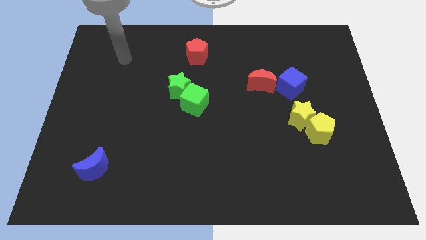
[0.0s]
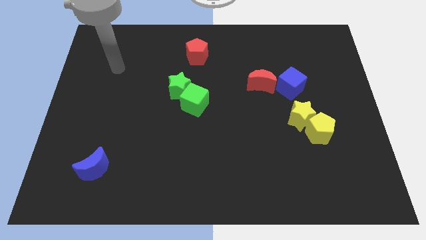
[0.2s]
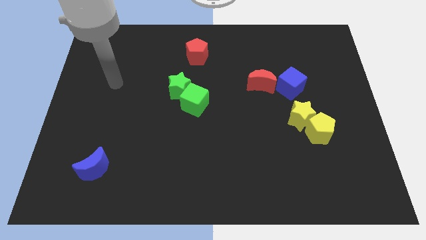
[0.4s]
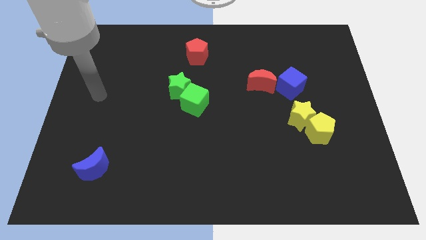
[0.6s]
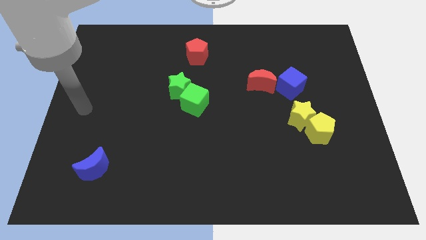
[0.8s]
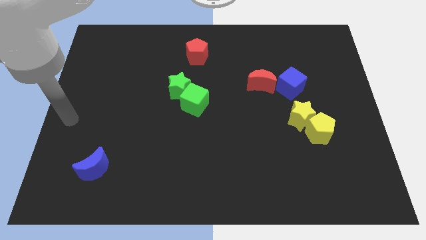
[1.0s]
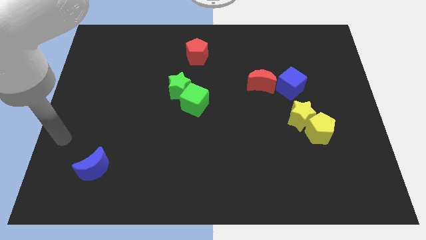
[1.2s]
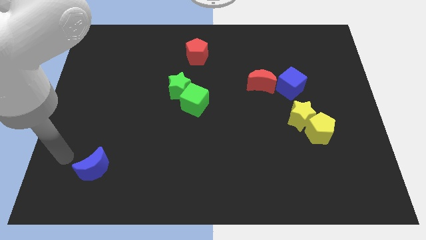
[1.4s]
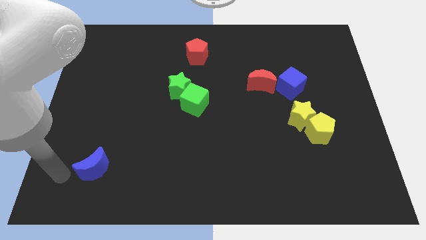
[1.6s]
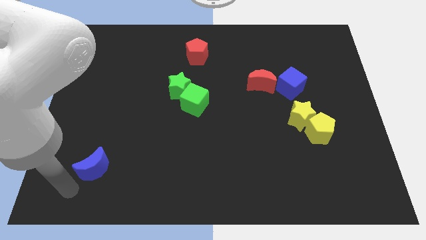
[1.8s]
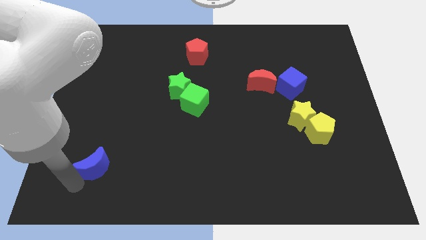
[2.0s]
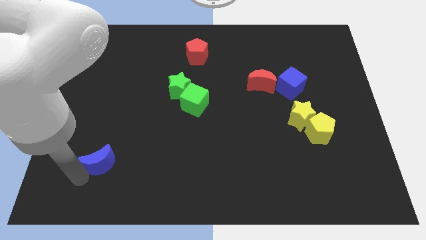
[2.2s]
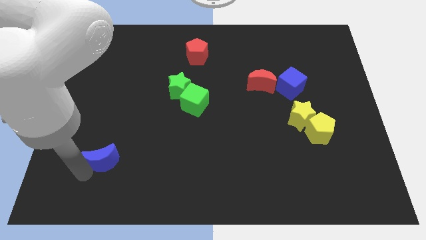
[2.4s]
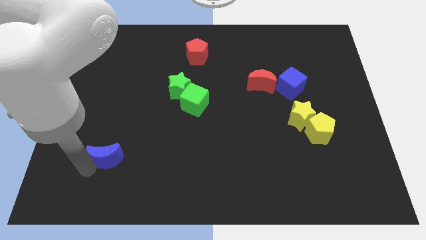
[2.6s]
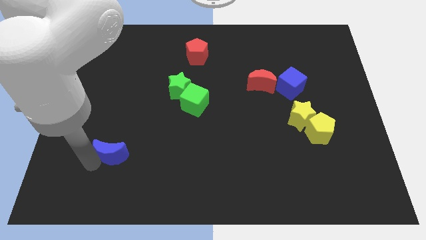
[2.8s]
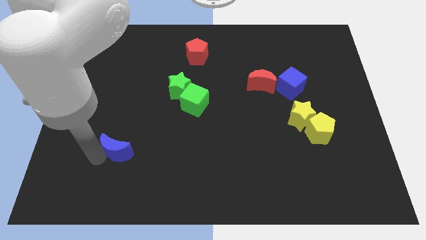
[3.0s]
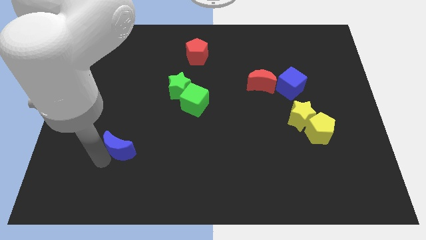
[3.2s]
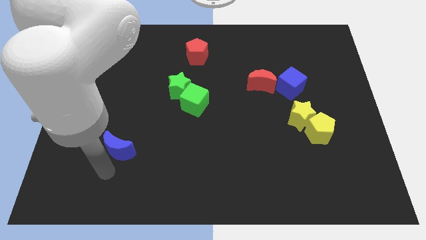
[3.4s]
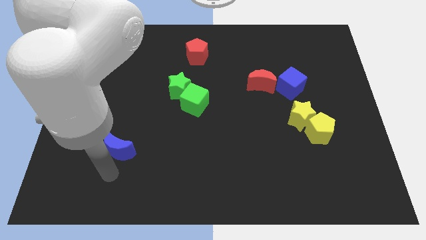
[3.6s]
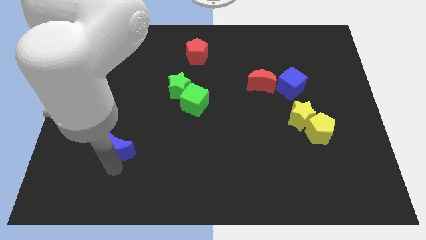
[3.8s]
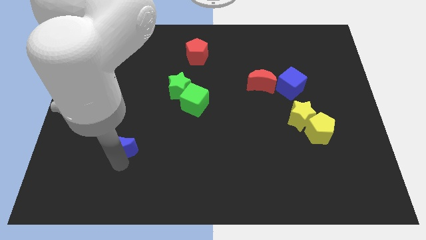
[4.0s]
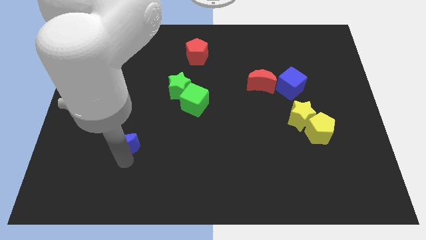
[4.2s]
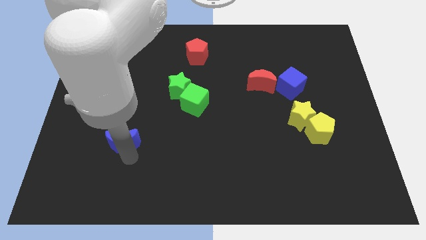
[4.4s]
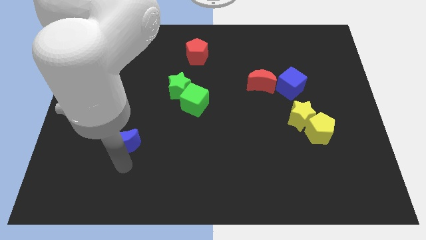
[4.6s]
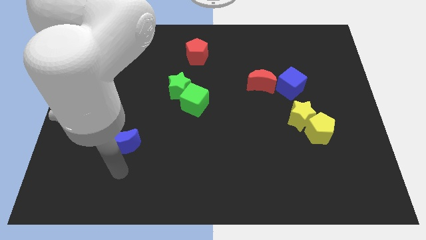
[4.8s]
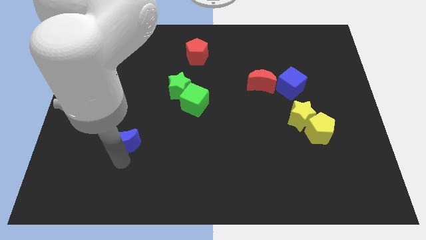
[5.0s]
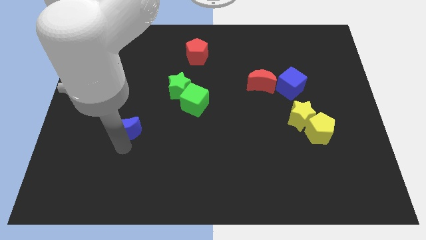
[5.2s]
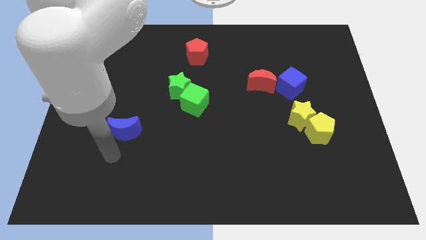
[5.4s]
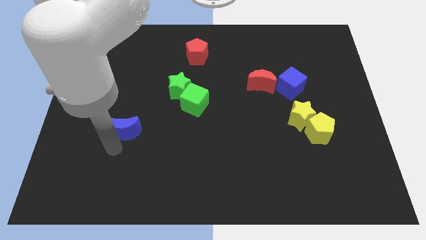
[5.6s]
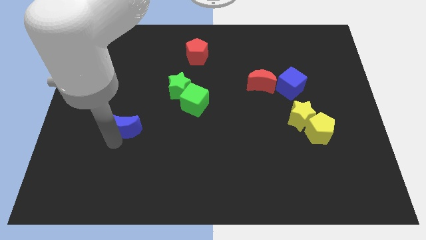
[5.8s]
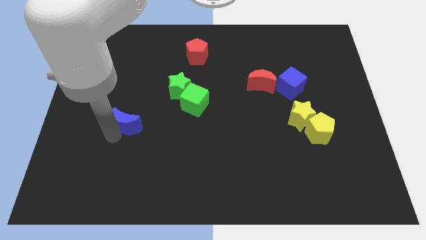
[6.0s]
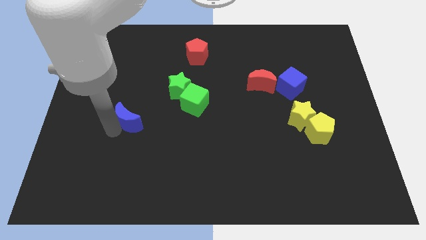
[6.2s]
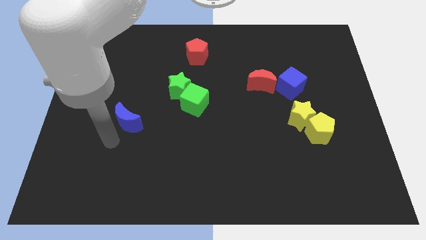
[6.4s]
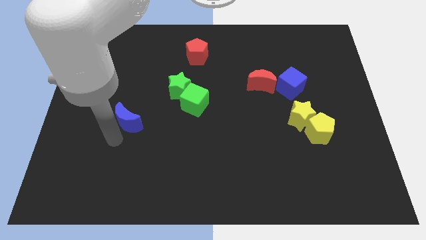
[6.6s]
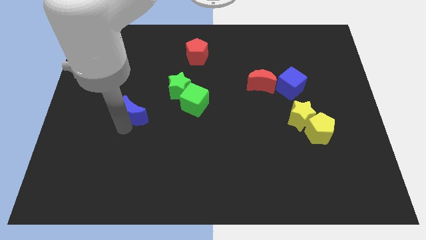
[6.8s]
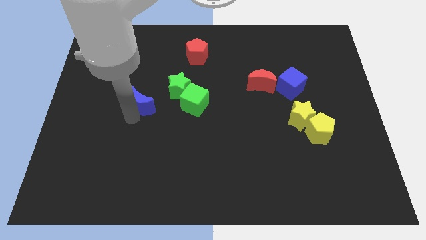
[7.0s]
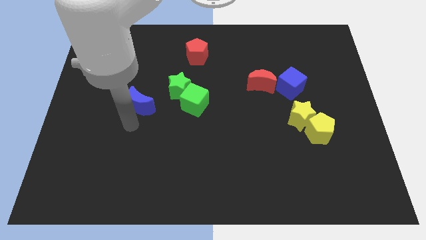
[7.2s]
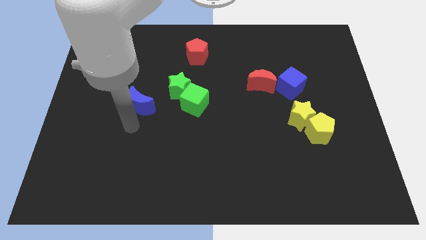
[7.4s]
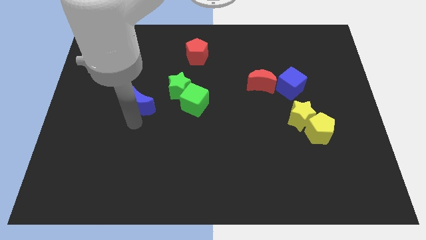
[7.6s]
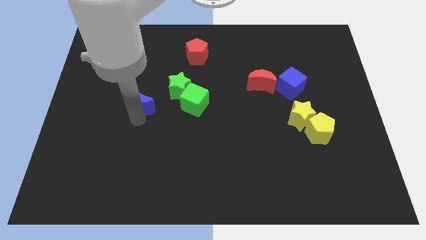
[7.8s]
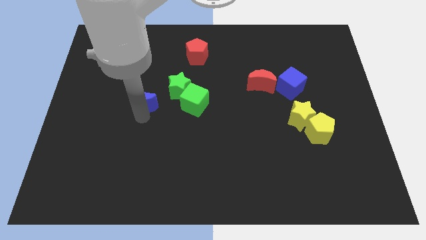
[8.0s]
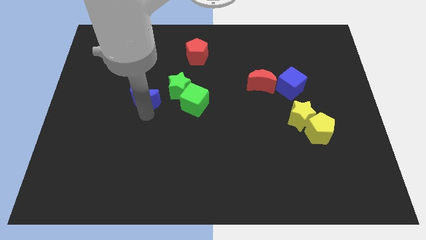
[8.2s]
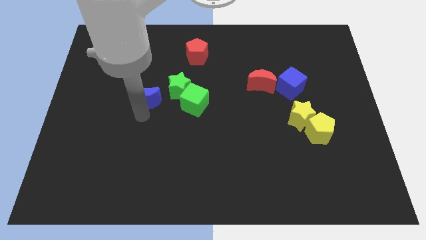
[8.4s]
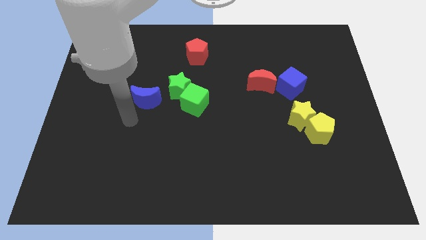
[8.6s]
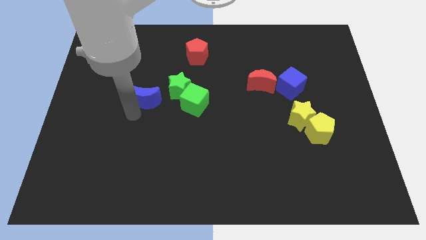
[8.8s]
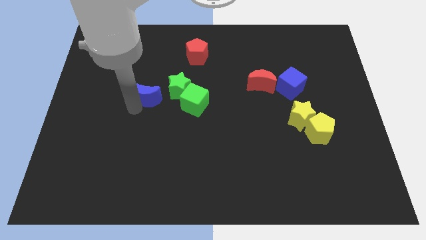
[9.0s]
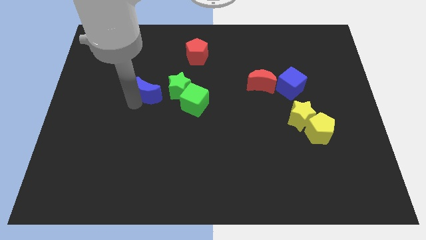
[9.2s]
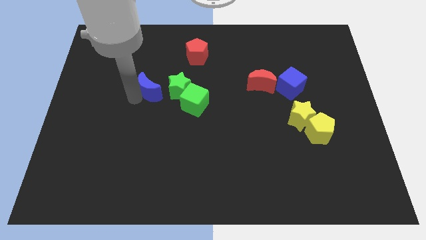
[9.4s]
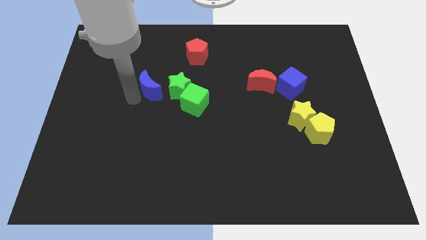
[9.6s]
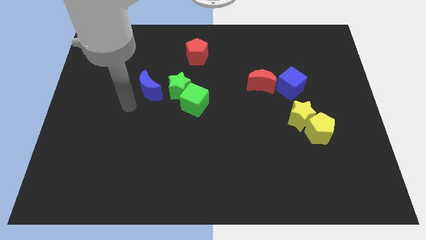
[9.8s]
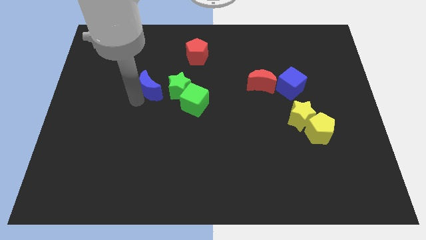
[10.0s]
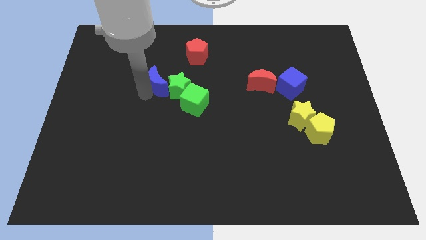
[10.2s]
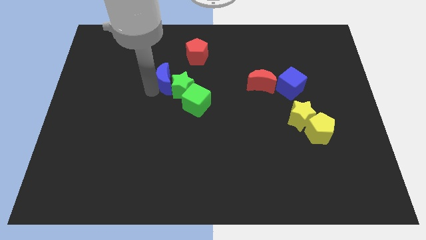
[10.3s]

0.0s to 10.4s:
move the blue moon to the bottom left of the red pentagon

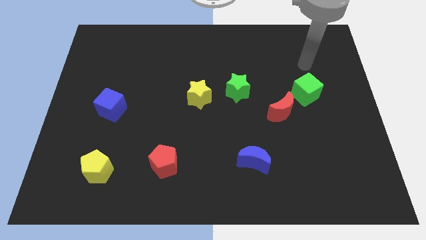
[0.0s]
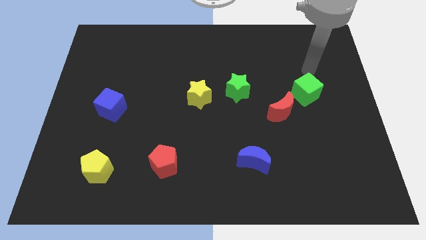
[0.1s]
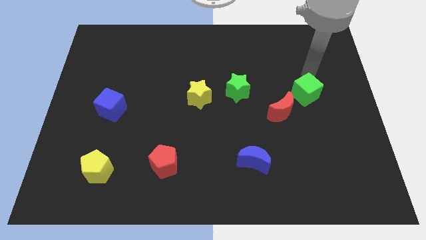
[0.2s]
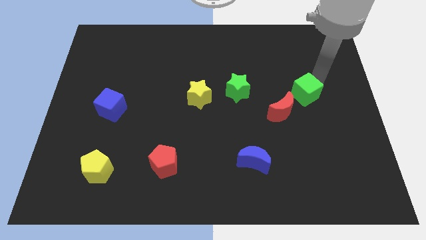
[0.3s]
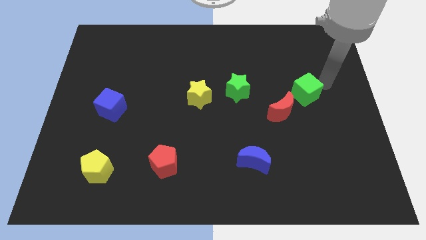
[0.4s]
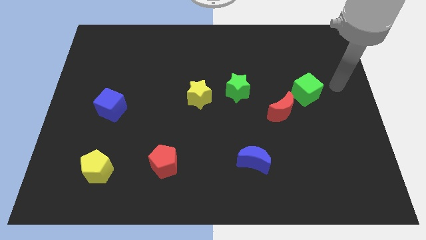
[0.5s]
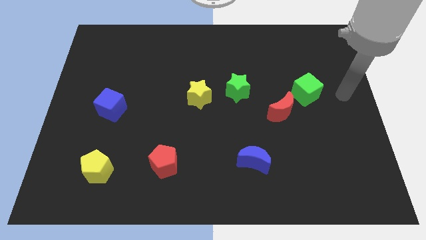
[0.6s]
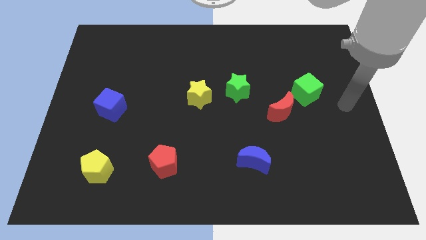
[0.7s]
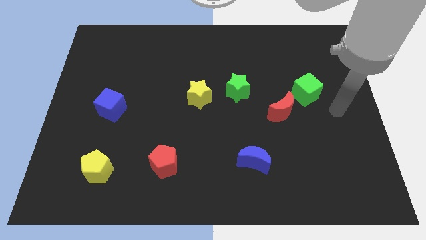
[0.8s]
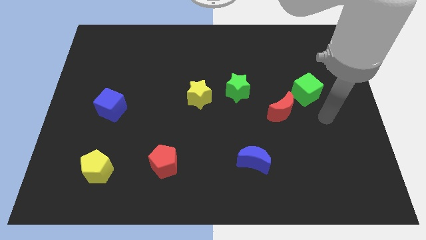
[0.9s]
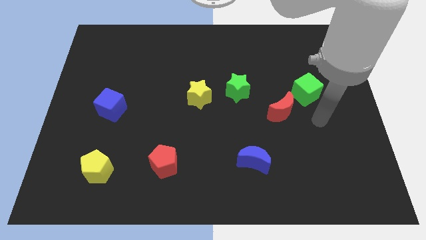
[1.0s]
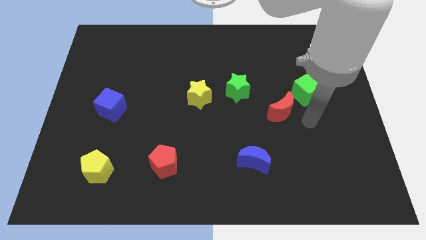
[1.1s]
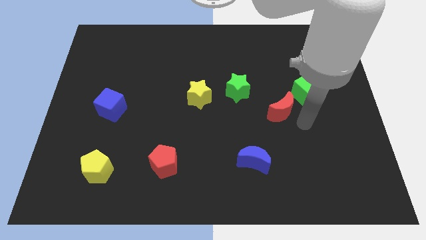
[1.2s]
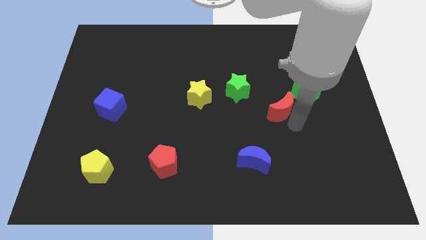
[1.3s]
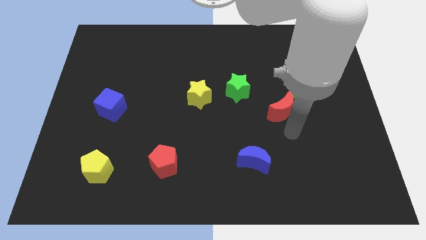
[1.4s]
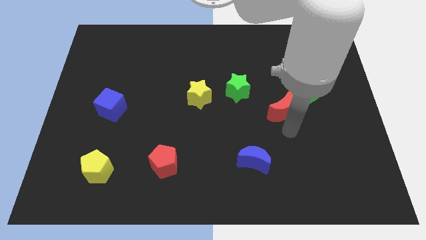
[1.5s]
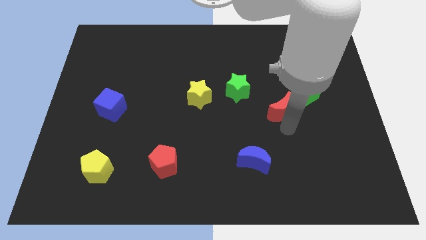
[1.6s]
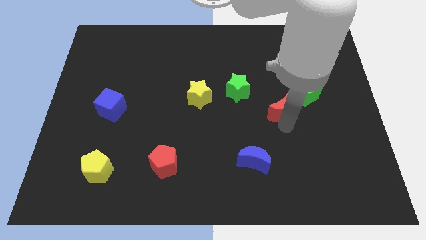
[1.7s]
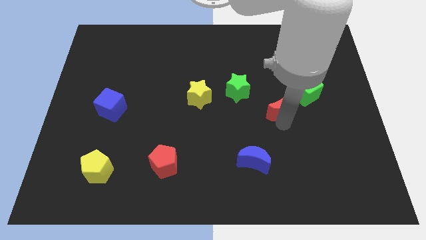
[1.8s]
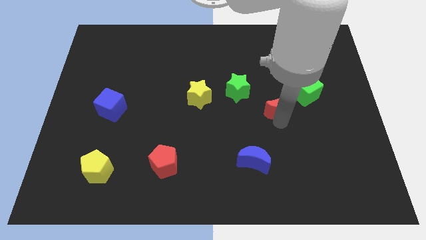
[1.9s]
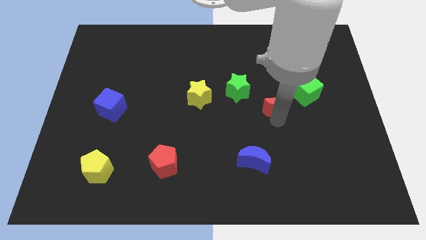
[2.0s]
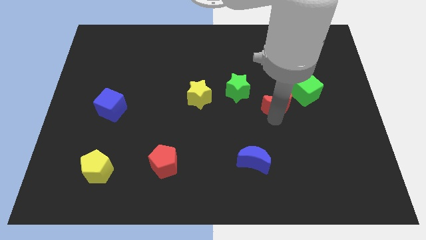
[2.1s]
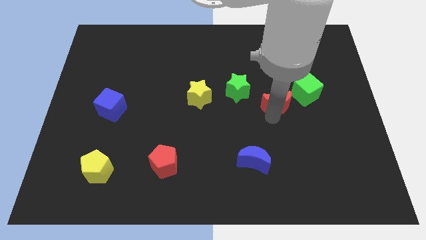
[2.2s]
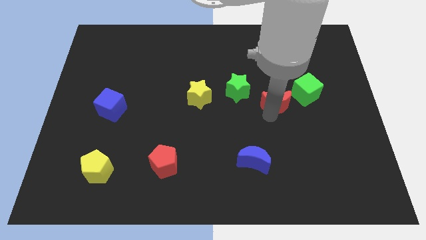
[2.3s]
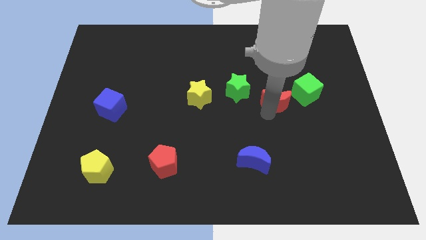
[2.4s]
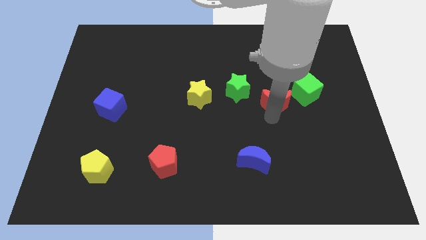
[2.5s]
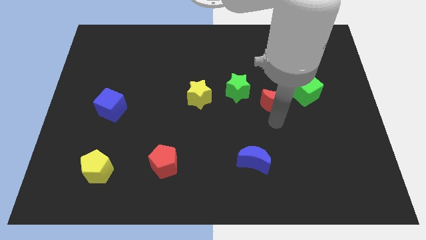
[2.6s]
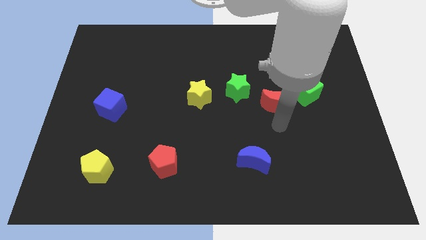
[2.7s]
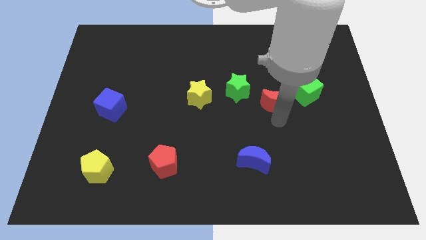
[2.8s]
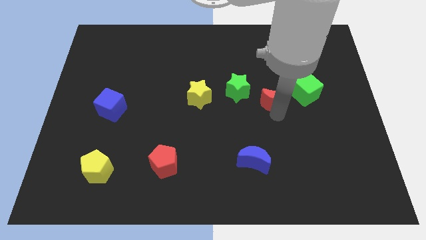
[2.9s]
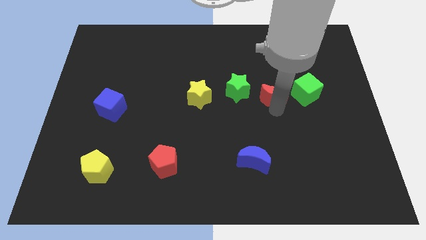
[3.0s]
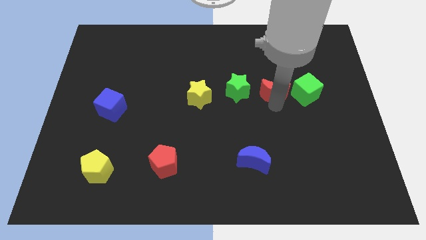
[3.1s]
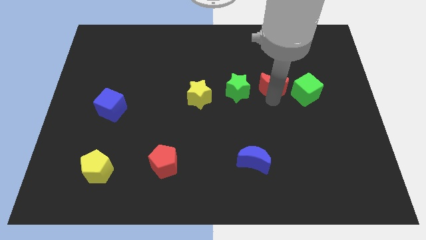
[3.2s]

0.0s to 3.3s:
slide the red moon to the top left of the green cube
